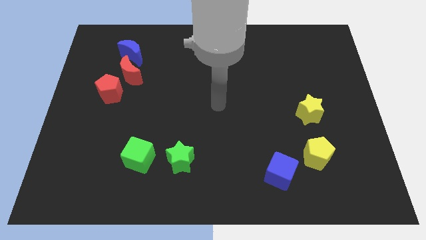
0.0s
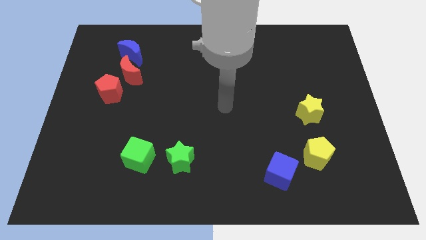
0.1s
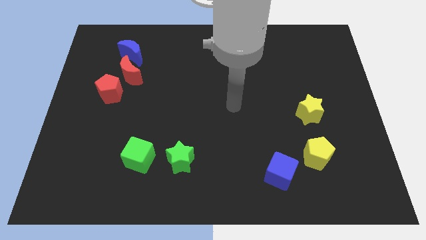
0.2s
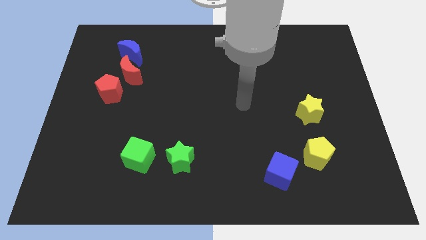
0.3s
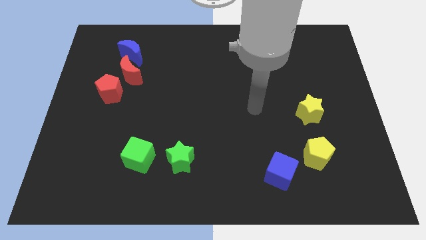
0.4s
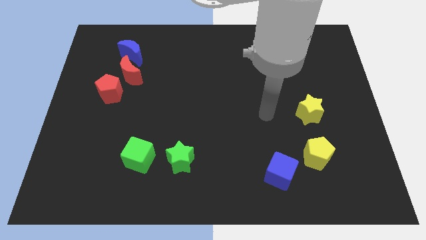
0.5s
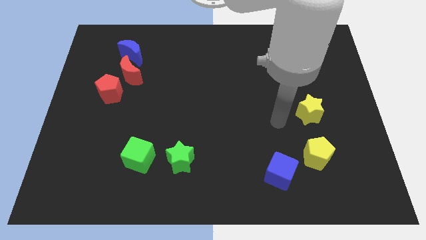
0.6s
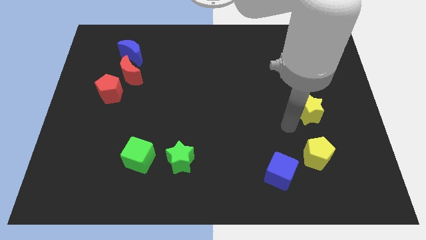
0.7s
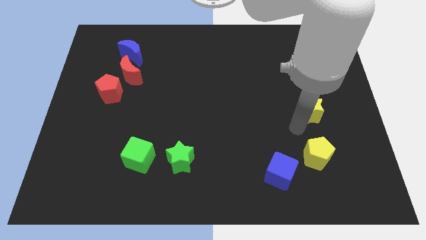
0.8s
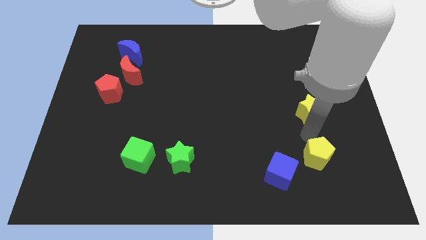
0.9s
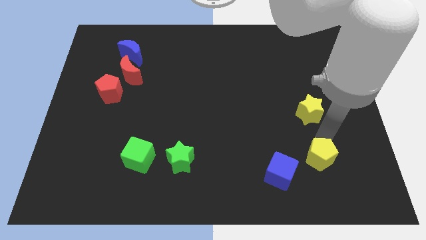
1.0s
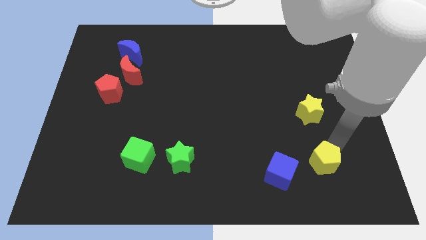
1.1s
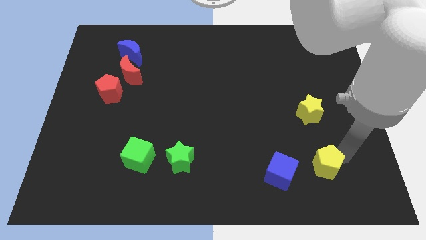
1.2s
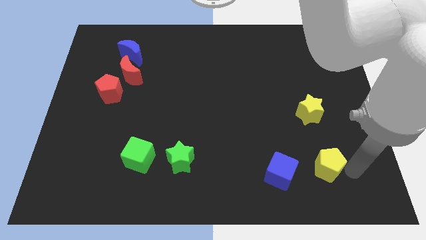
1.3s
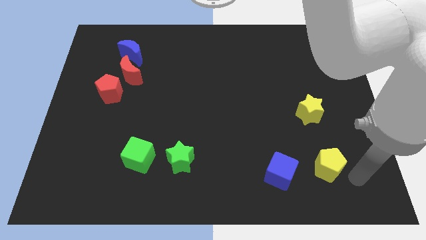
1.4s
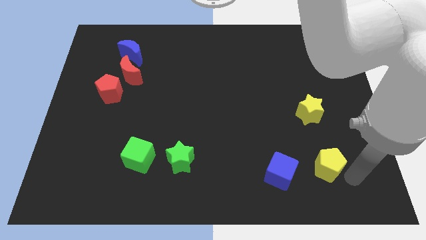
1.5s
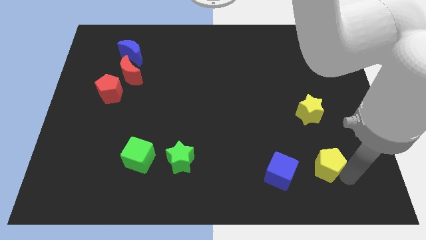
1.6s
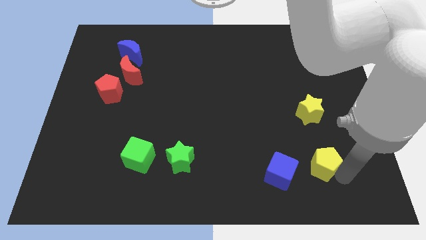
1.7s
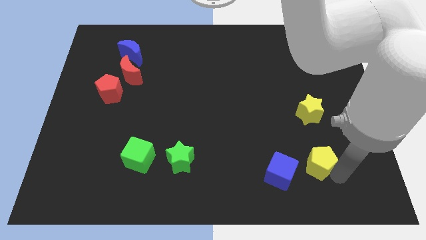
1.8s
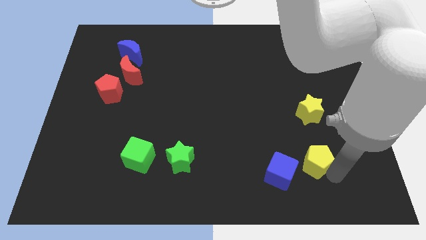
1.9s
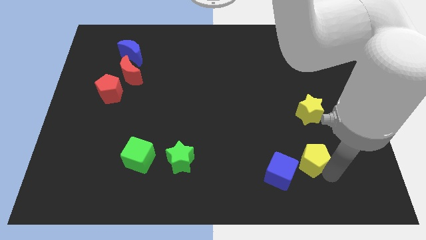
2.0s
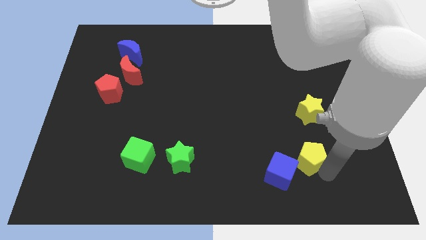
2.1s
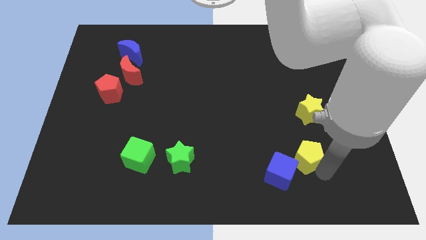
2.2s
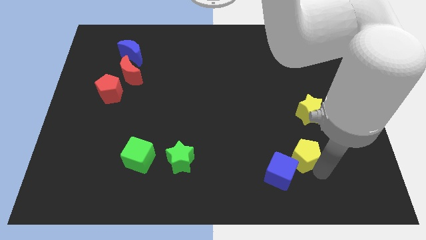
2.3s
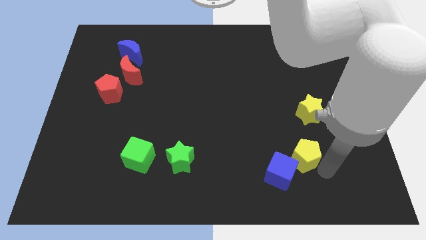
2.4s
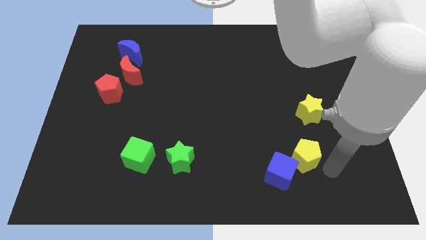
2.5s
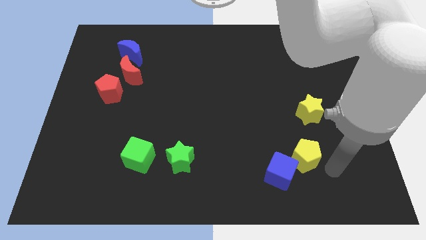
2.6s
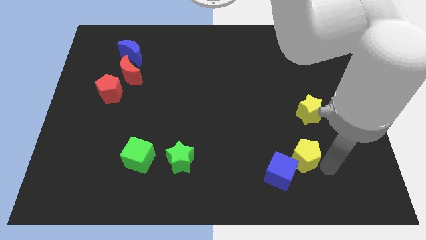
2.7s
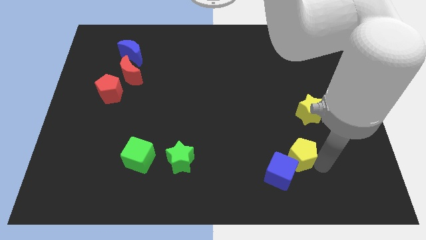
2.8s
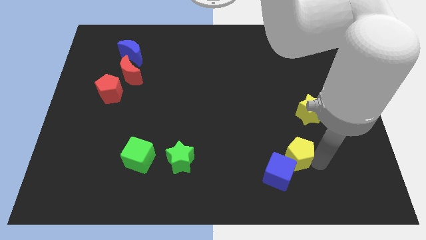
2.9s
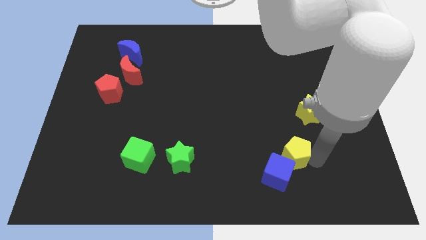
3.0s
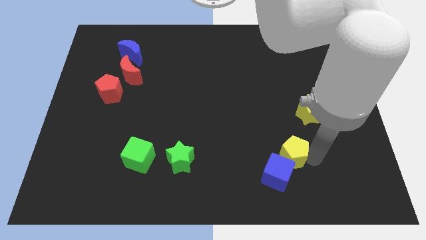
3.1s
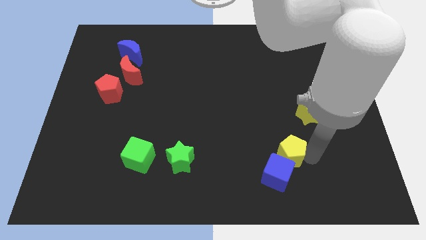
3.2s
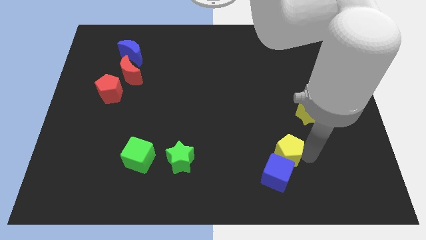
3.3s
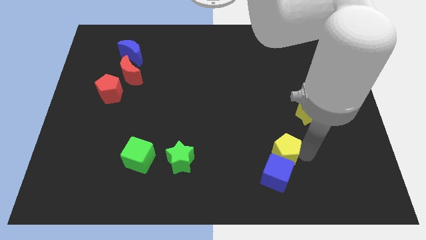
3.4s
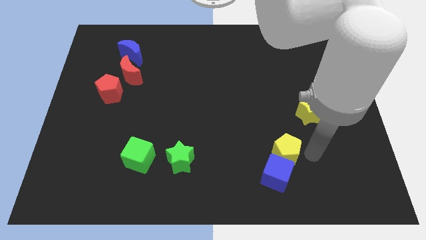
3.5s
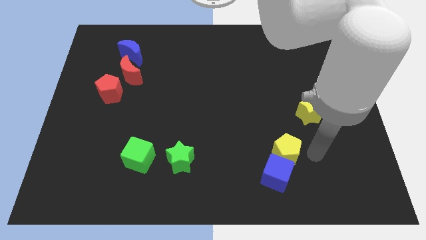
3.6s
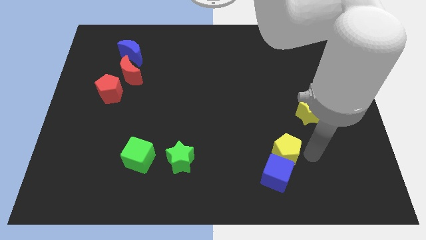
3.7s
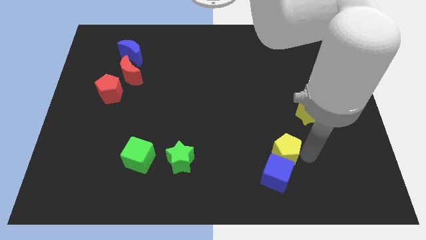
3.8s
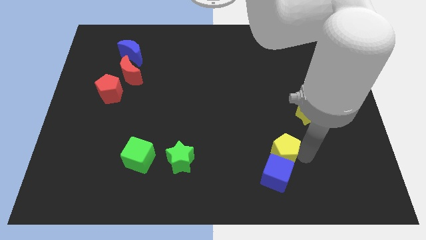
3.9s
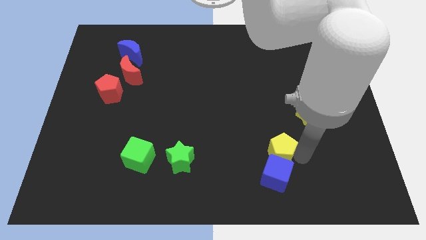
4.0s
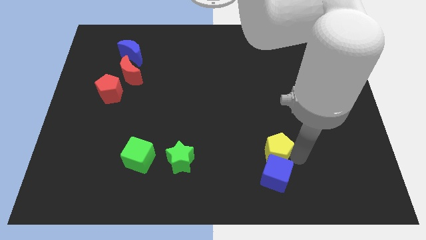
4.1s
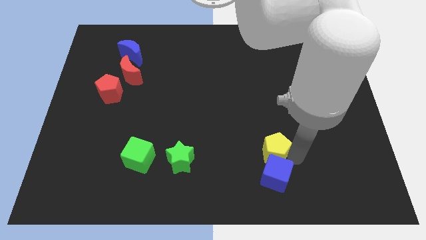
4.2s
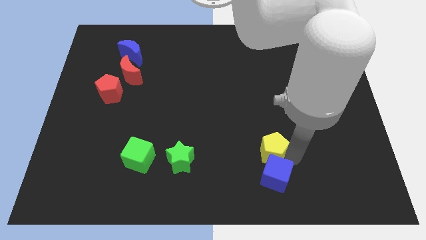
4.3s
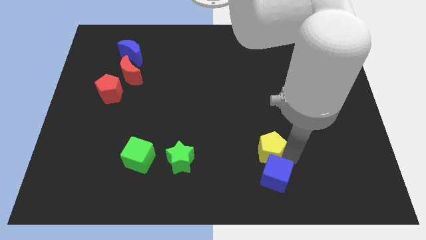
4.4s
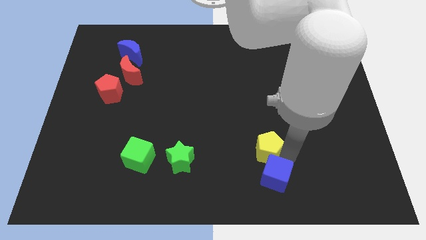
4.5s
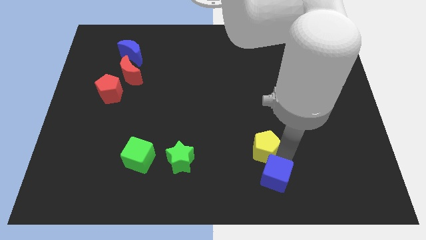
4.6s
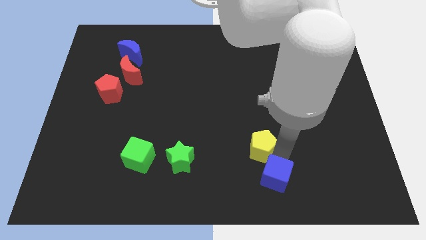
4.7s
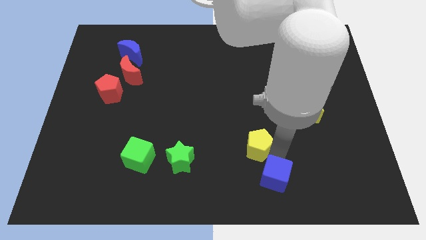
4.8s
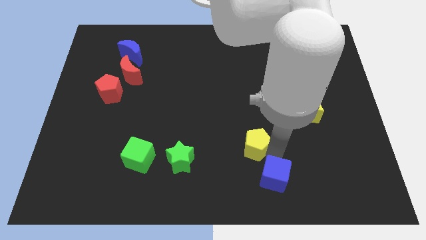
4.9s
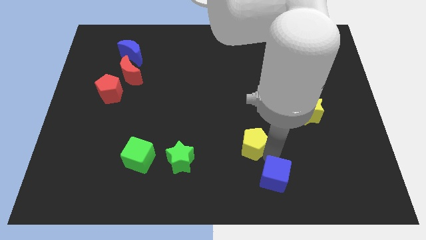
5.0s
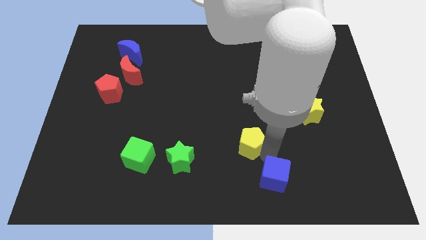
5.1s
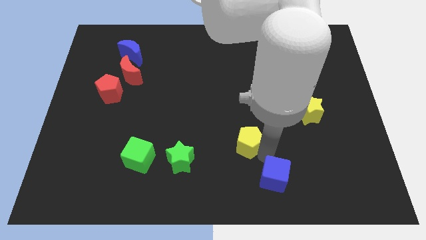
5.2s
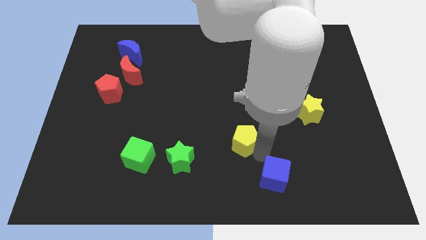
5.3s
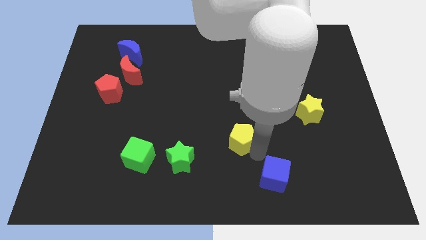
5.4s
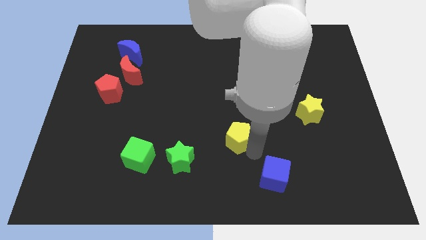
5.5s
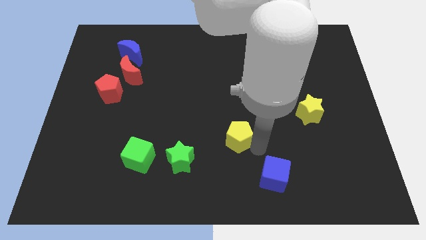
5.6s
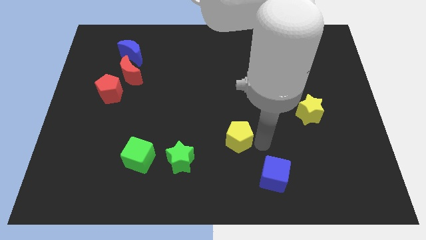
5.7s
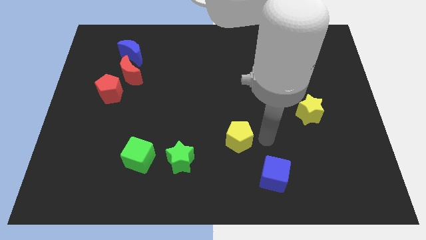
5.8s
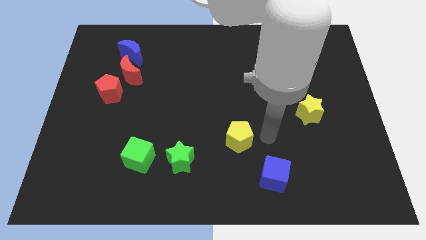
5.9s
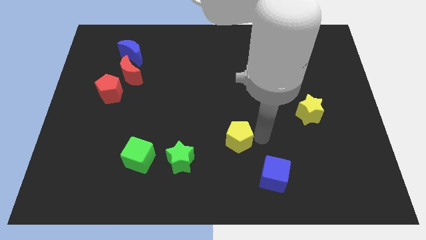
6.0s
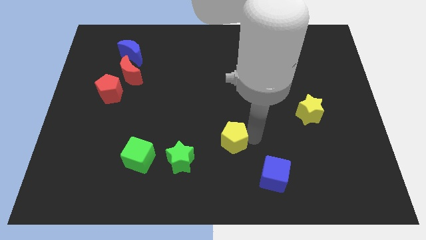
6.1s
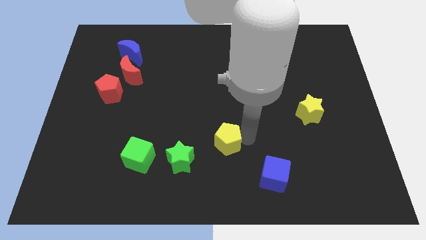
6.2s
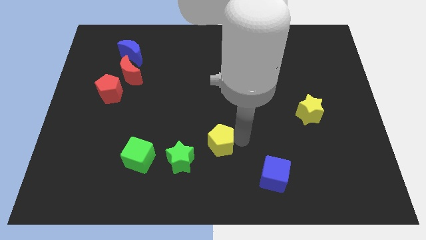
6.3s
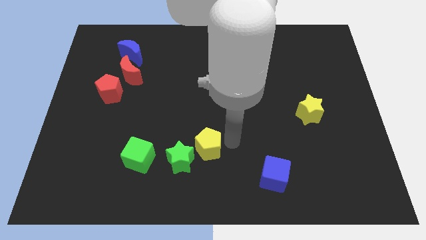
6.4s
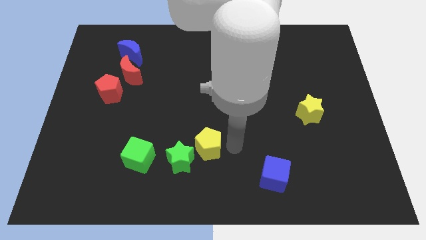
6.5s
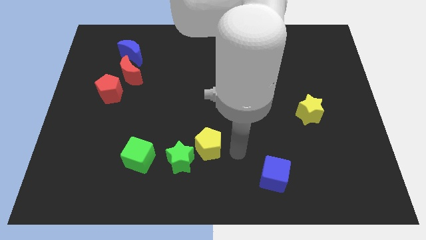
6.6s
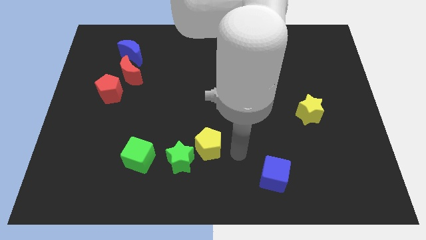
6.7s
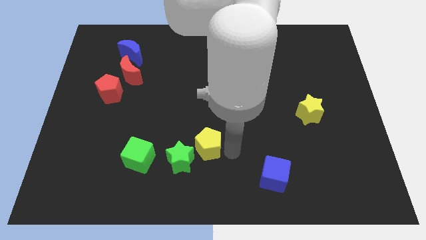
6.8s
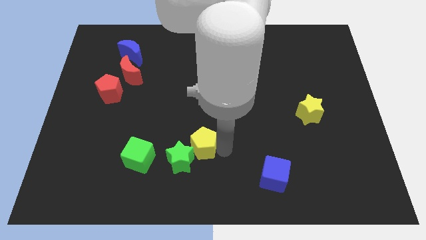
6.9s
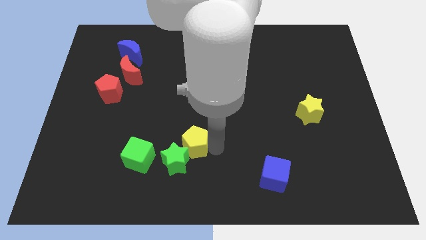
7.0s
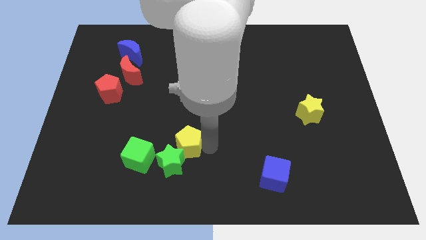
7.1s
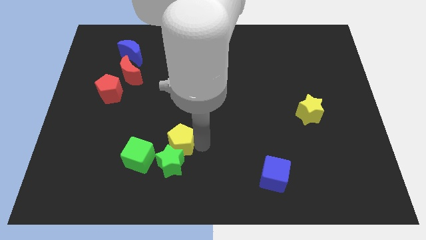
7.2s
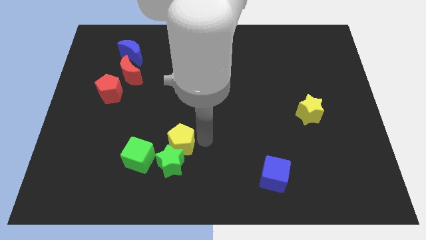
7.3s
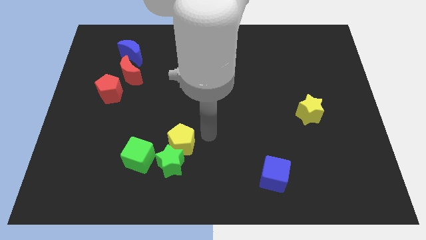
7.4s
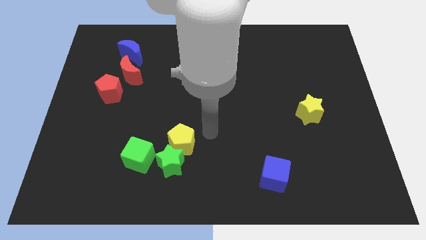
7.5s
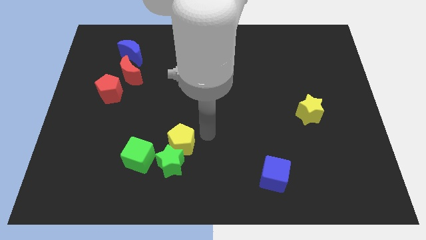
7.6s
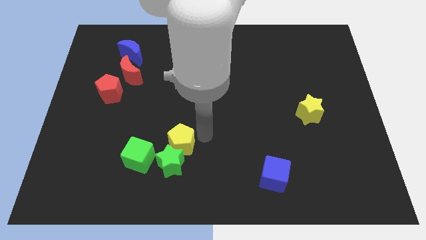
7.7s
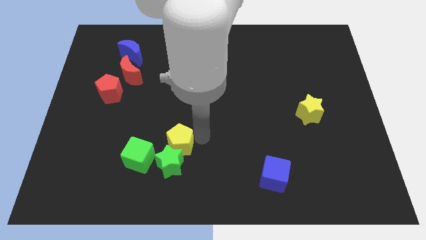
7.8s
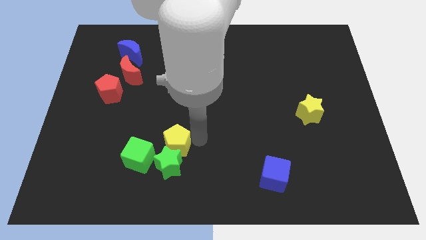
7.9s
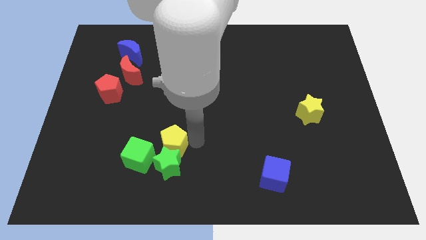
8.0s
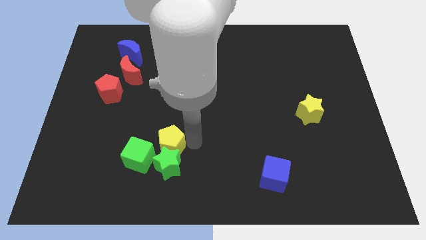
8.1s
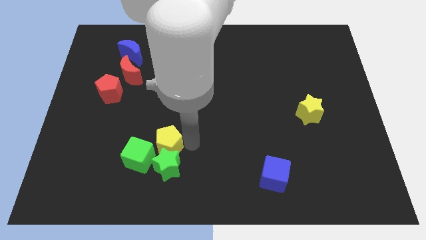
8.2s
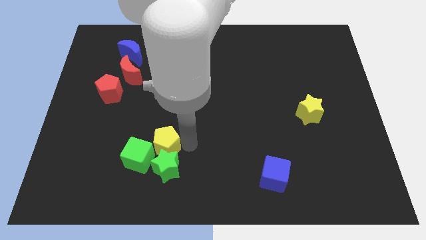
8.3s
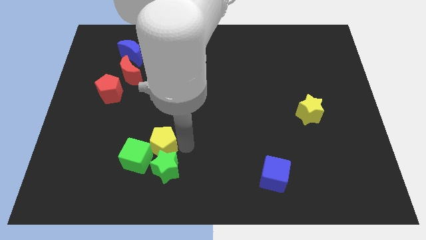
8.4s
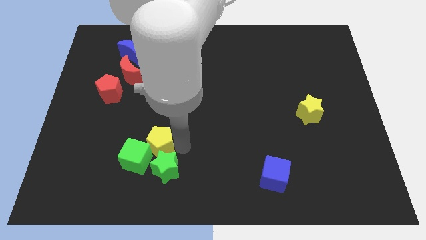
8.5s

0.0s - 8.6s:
slide the yellow pentagon next to the green cube
